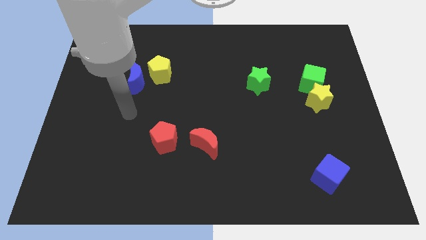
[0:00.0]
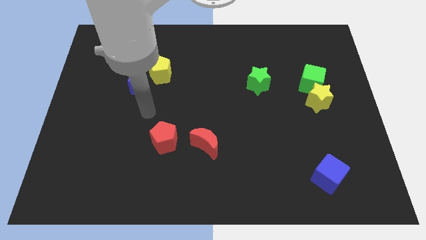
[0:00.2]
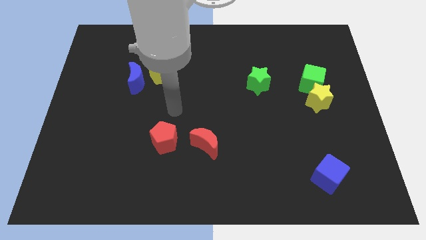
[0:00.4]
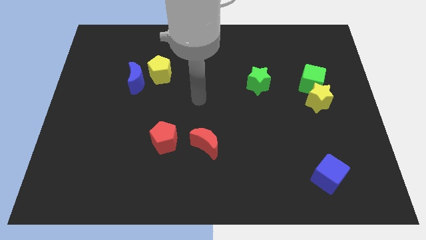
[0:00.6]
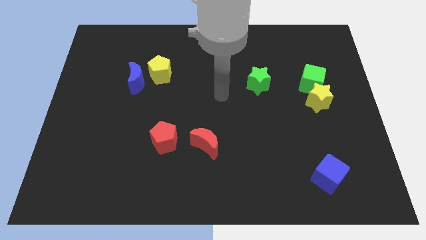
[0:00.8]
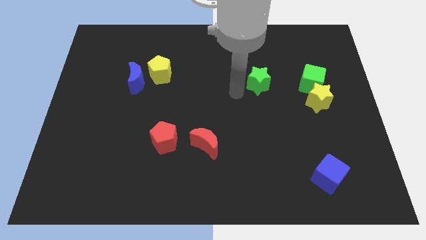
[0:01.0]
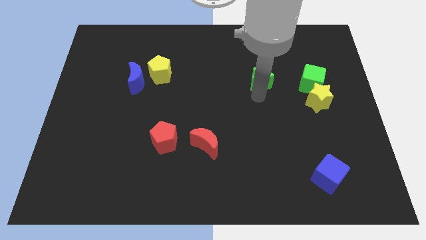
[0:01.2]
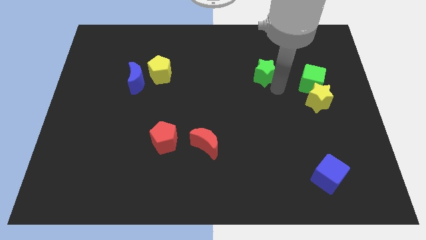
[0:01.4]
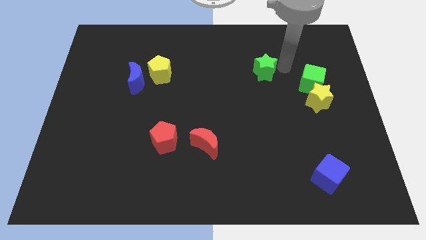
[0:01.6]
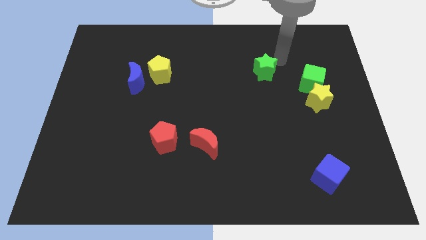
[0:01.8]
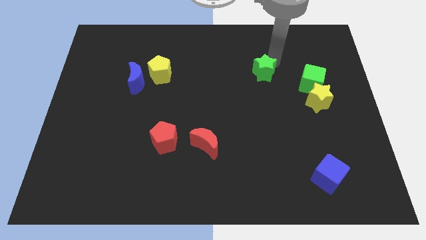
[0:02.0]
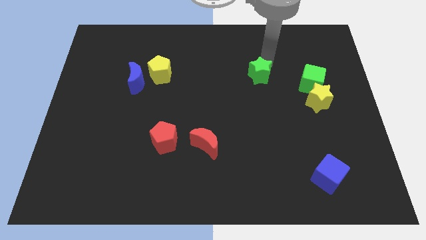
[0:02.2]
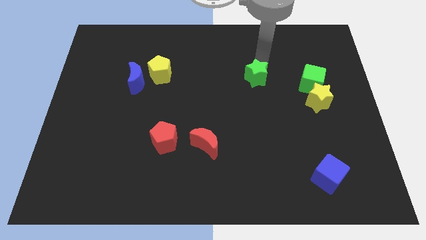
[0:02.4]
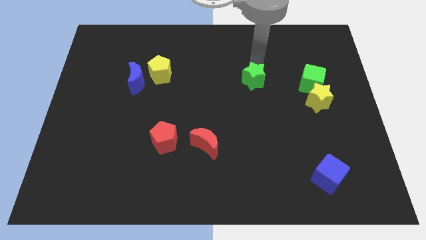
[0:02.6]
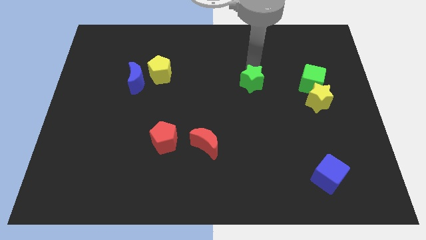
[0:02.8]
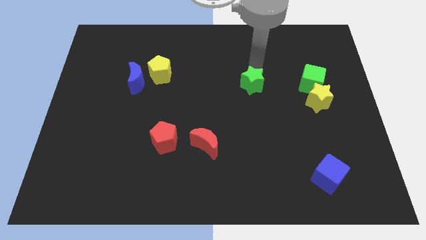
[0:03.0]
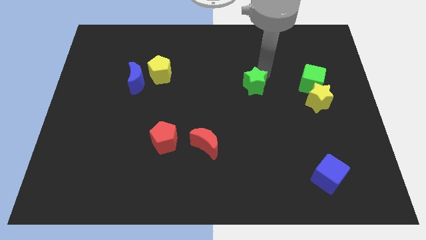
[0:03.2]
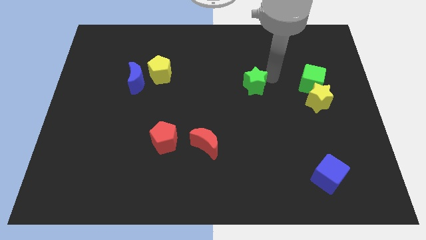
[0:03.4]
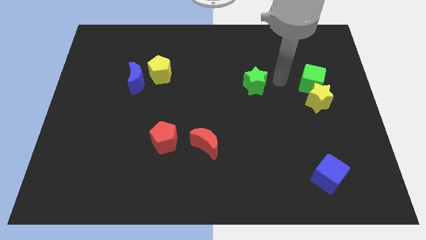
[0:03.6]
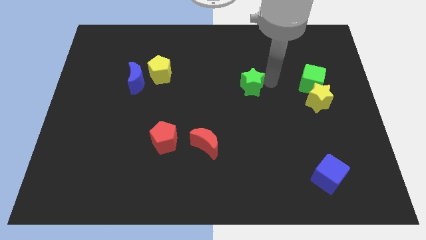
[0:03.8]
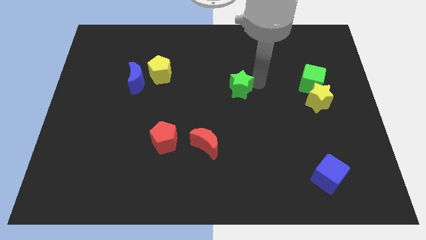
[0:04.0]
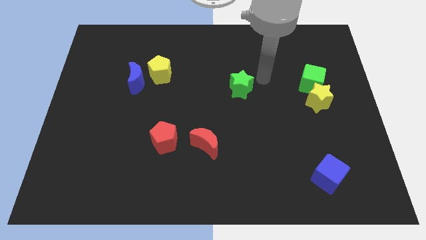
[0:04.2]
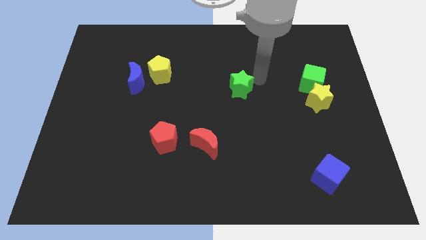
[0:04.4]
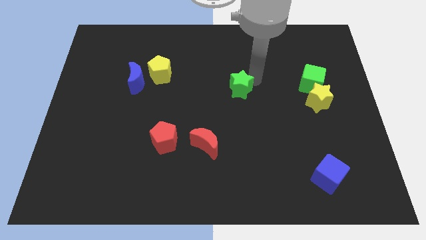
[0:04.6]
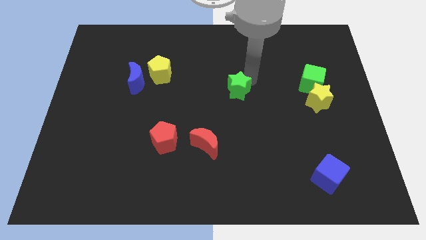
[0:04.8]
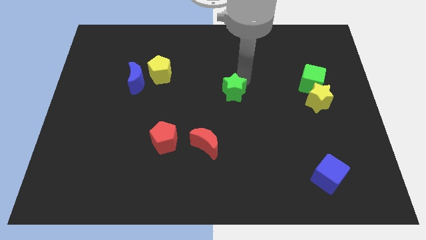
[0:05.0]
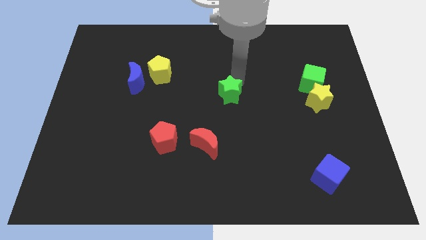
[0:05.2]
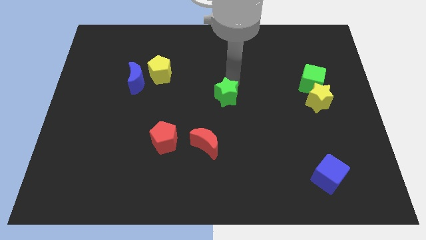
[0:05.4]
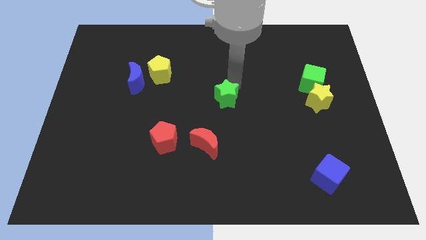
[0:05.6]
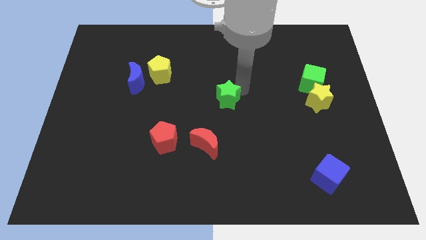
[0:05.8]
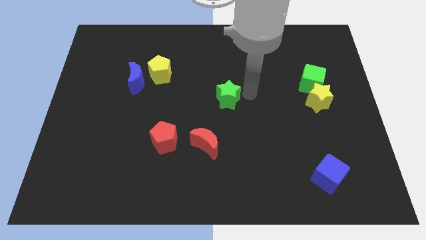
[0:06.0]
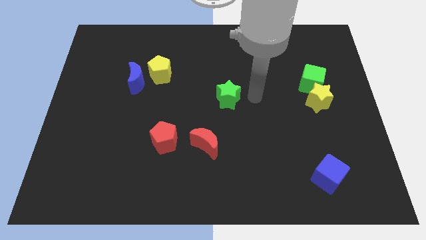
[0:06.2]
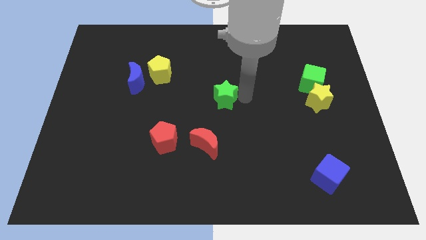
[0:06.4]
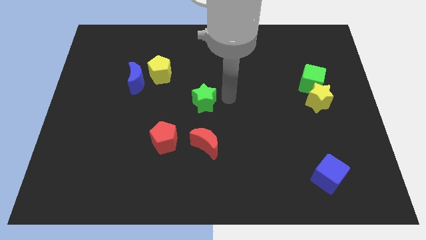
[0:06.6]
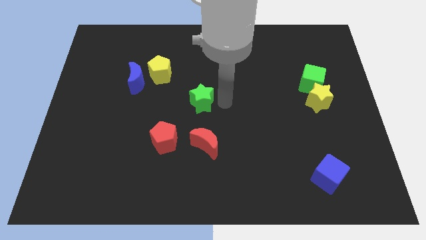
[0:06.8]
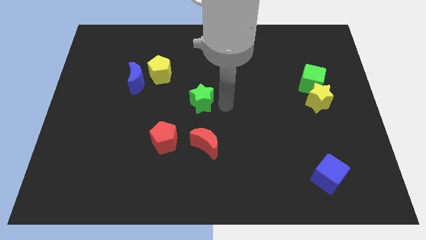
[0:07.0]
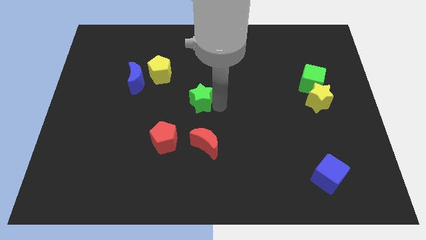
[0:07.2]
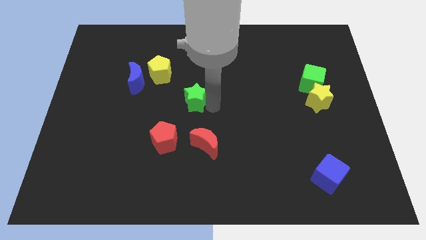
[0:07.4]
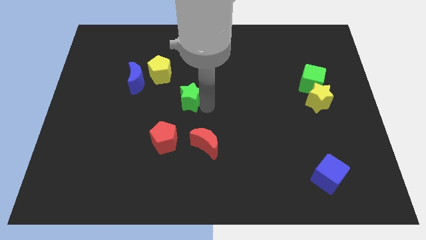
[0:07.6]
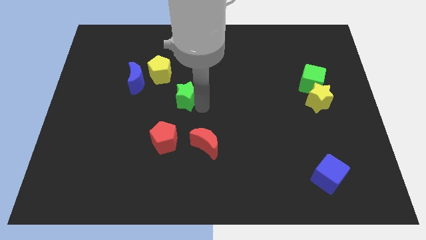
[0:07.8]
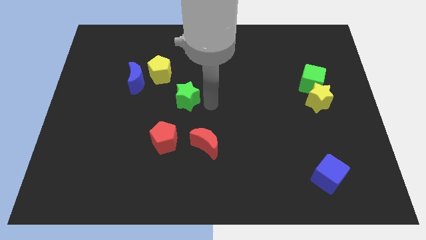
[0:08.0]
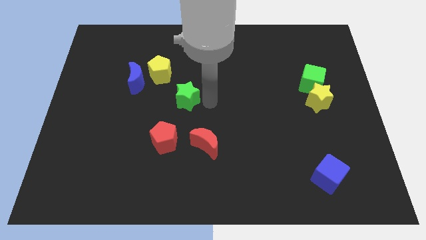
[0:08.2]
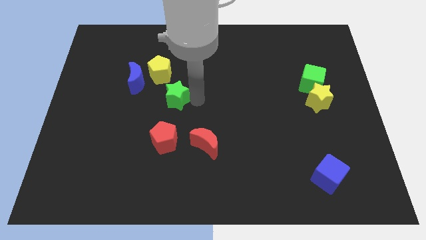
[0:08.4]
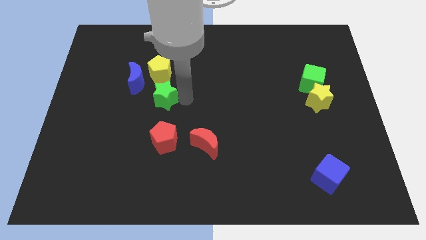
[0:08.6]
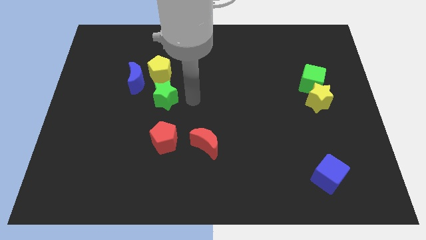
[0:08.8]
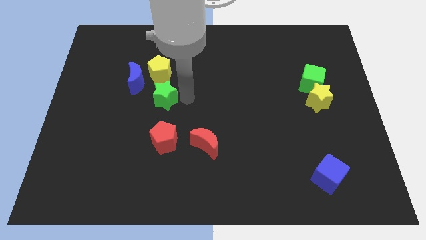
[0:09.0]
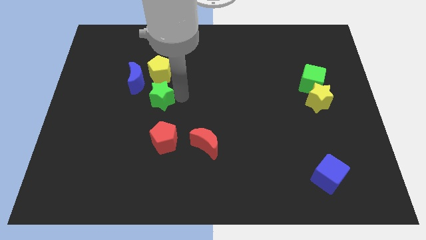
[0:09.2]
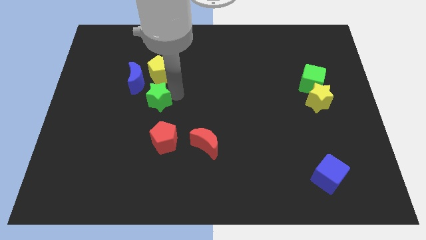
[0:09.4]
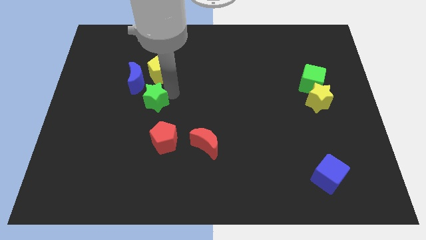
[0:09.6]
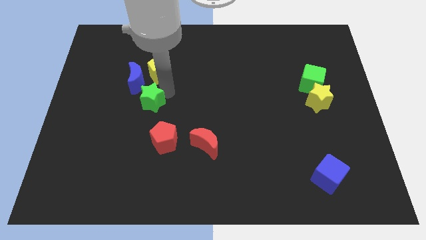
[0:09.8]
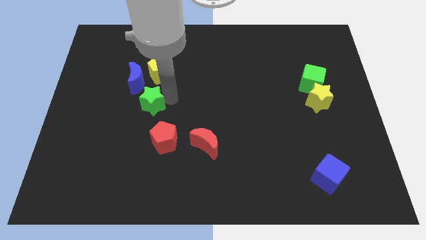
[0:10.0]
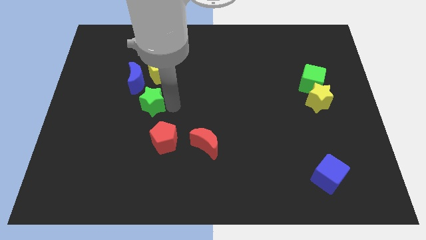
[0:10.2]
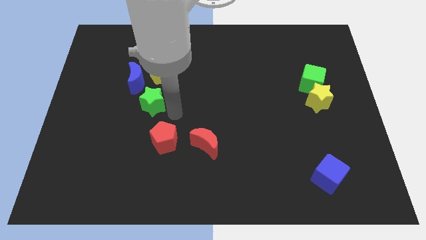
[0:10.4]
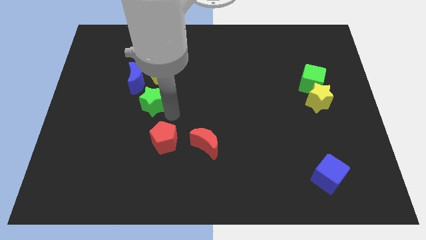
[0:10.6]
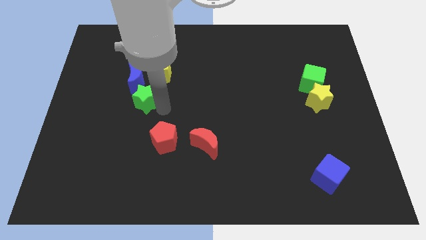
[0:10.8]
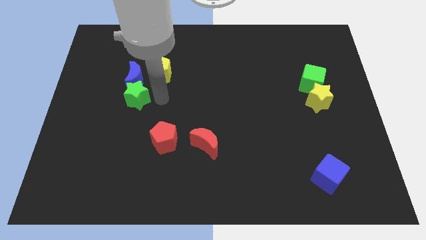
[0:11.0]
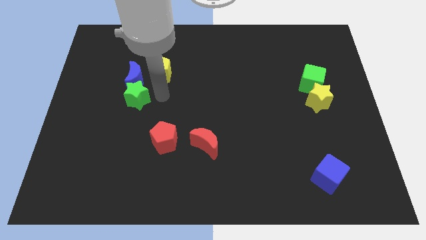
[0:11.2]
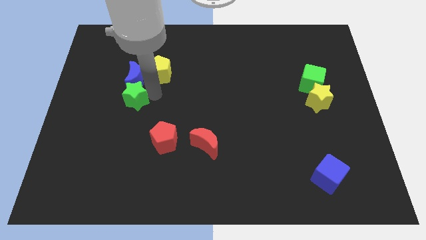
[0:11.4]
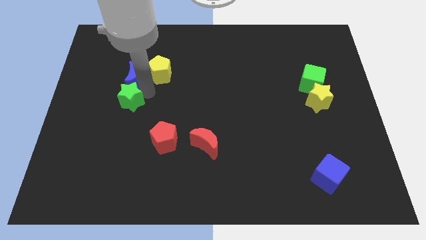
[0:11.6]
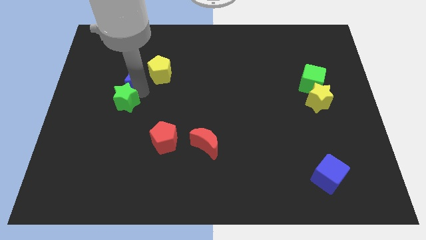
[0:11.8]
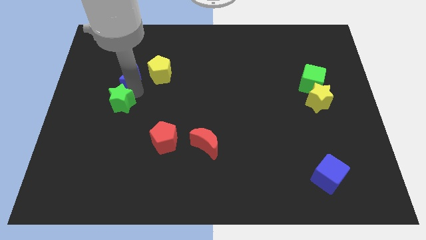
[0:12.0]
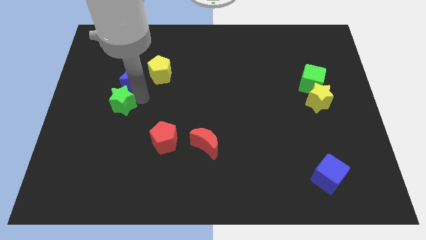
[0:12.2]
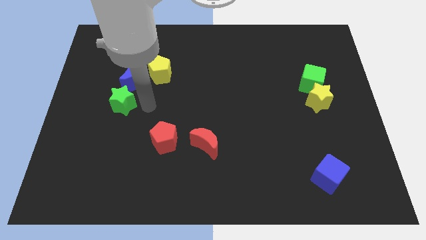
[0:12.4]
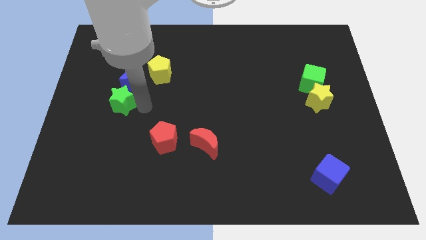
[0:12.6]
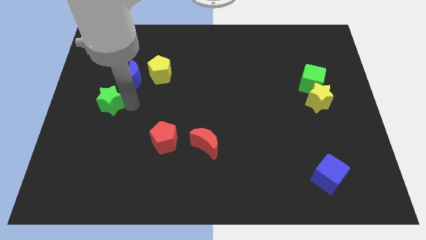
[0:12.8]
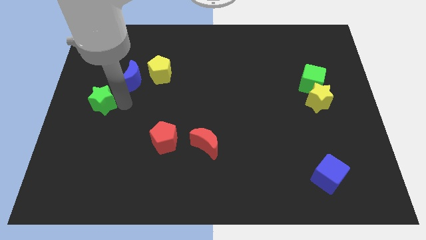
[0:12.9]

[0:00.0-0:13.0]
put the green star to the center left
